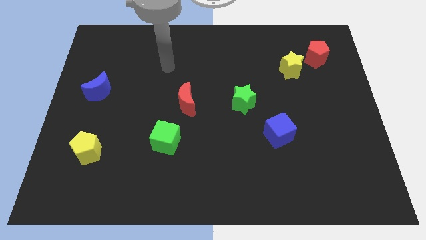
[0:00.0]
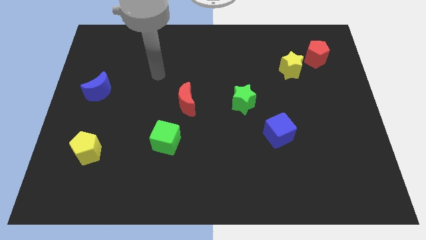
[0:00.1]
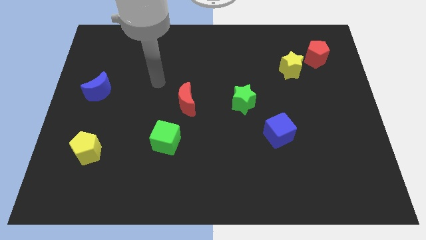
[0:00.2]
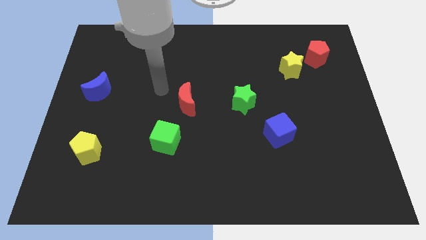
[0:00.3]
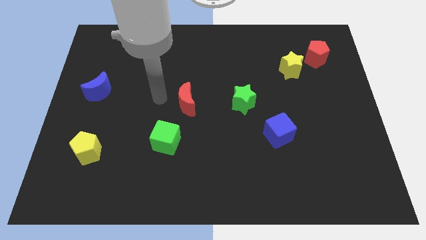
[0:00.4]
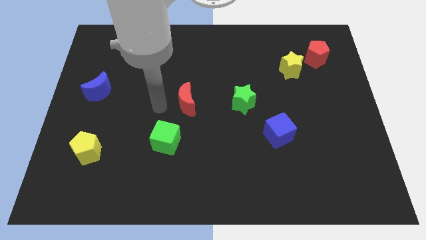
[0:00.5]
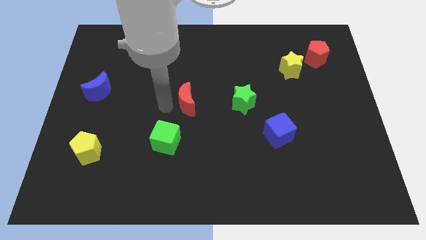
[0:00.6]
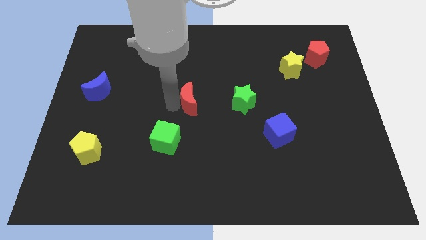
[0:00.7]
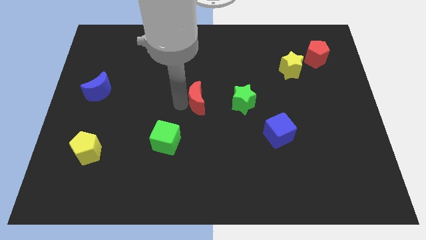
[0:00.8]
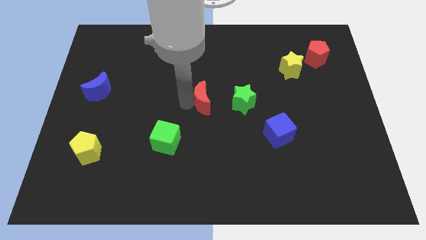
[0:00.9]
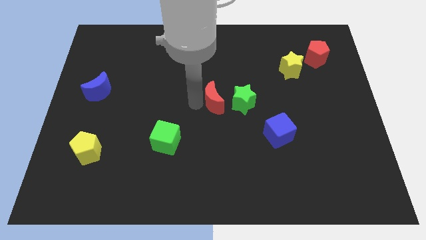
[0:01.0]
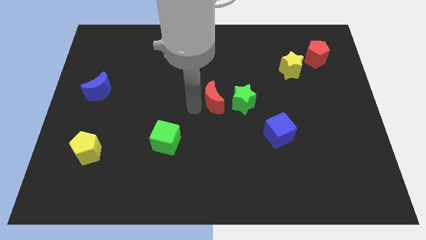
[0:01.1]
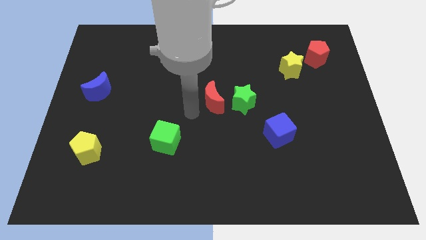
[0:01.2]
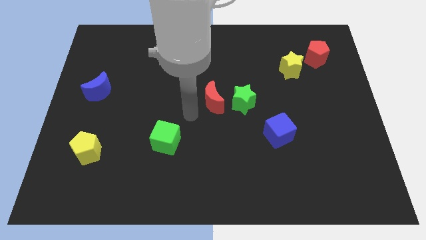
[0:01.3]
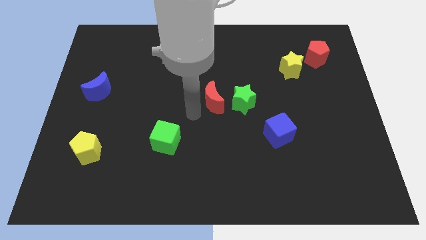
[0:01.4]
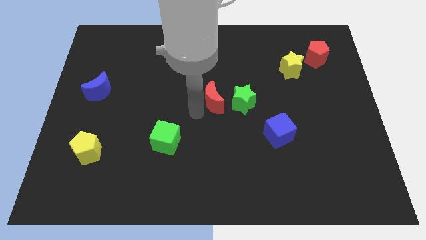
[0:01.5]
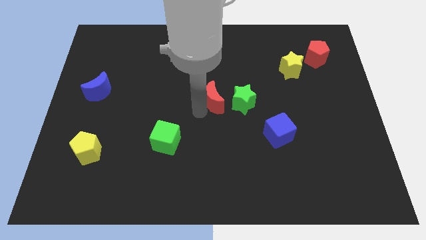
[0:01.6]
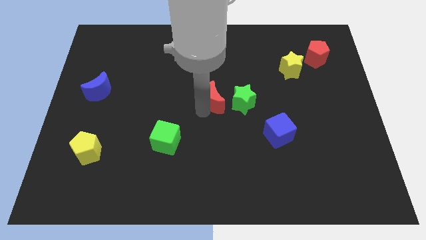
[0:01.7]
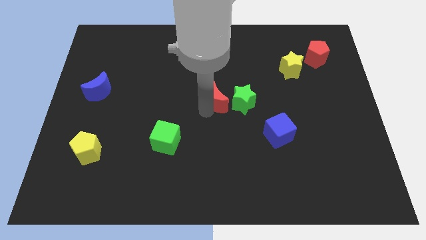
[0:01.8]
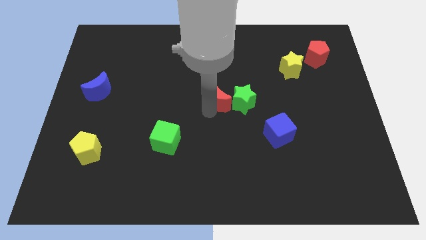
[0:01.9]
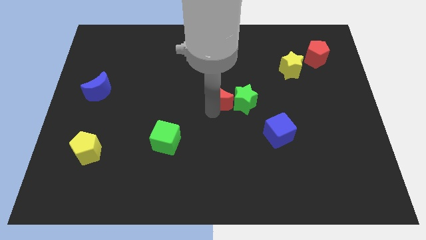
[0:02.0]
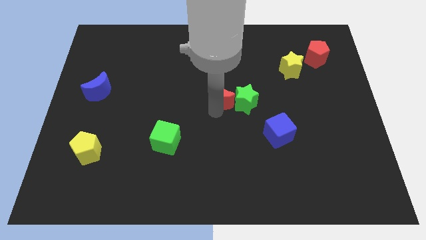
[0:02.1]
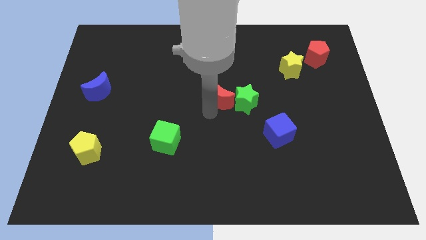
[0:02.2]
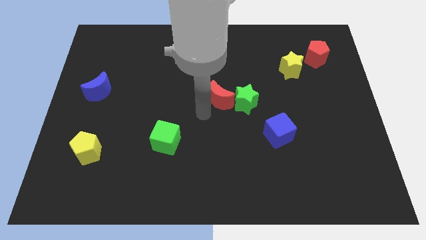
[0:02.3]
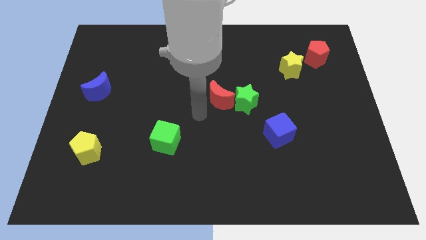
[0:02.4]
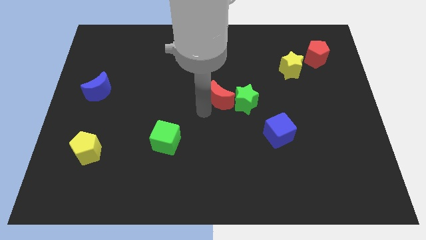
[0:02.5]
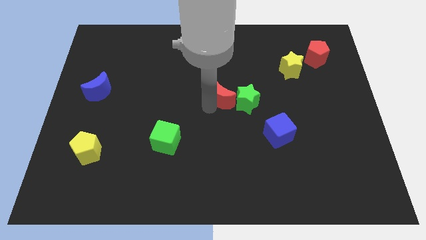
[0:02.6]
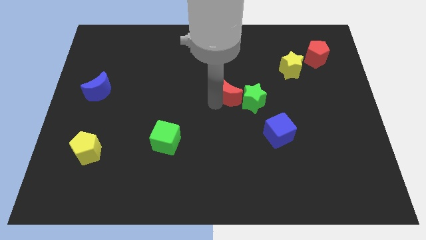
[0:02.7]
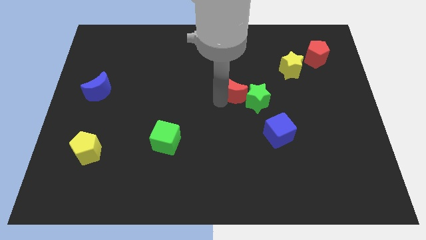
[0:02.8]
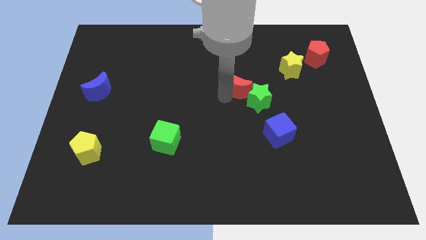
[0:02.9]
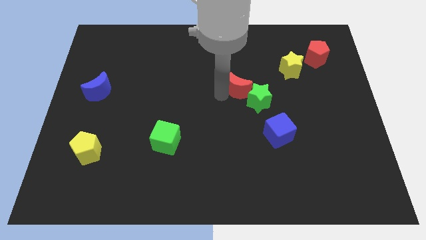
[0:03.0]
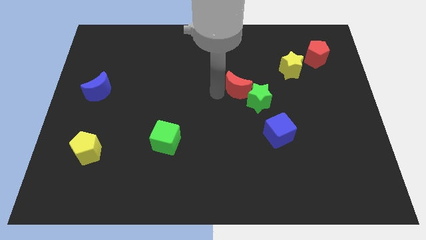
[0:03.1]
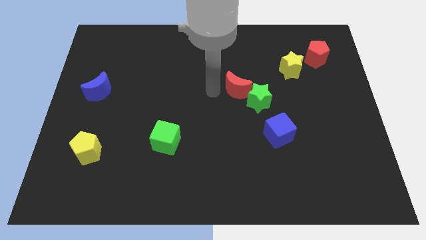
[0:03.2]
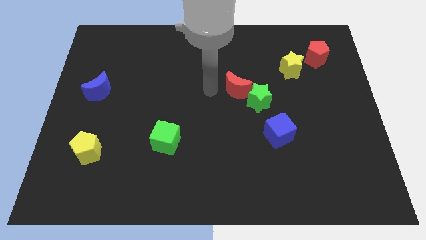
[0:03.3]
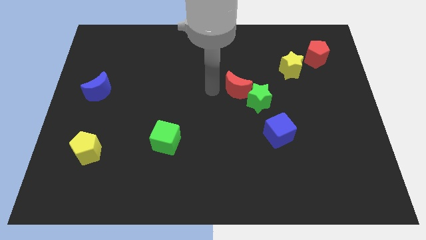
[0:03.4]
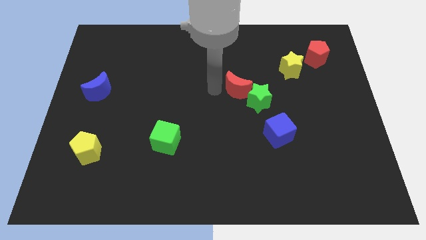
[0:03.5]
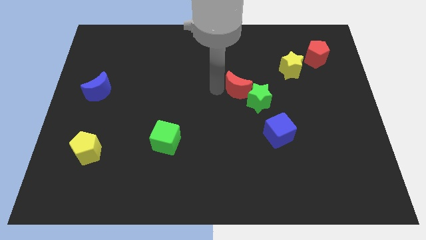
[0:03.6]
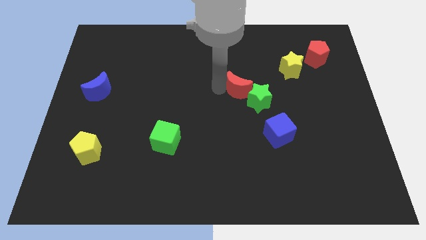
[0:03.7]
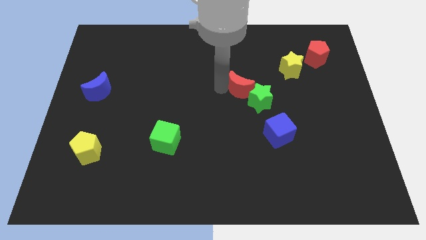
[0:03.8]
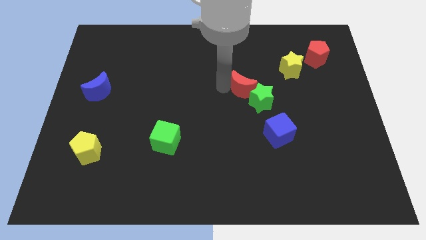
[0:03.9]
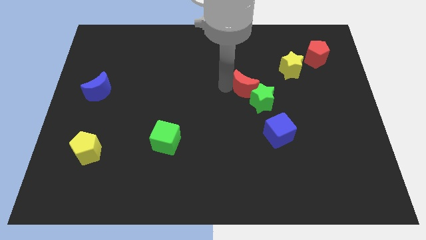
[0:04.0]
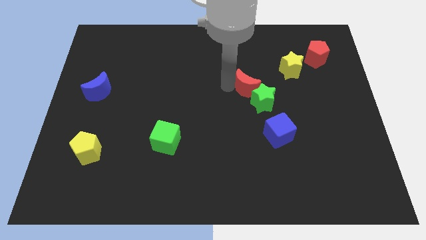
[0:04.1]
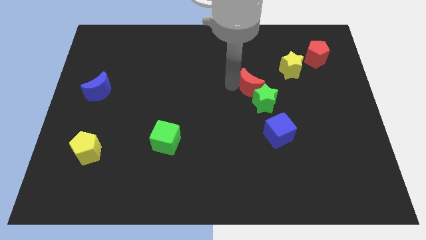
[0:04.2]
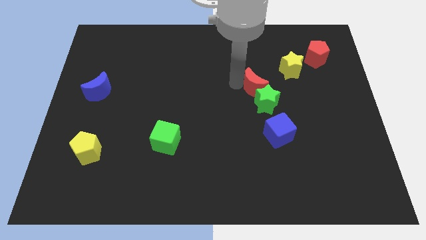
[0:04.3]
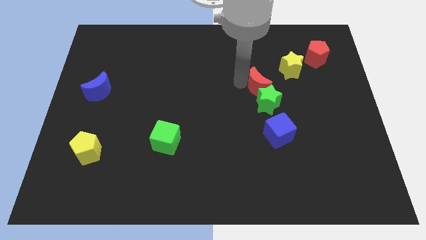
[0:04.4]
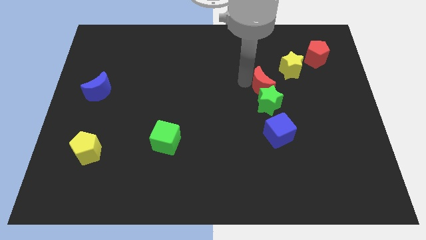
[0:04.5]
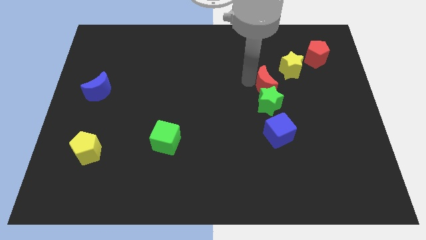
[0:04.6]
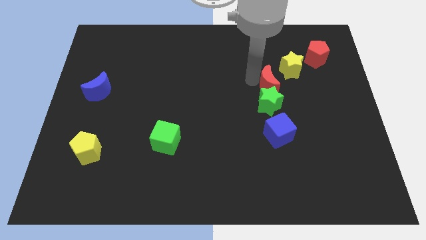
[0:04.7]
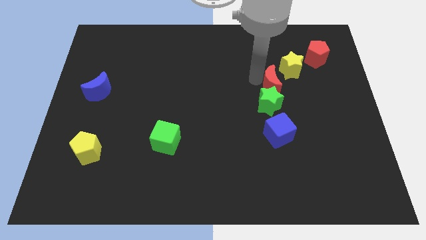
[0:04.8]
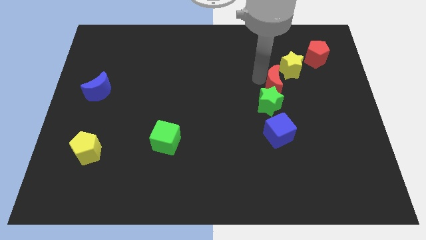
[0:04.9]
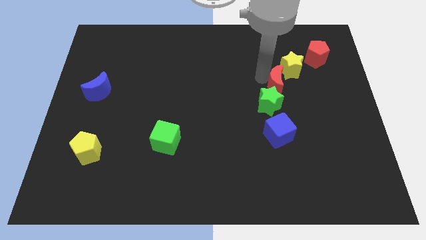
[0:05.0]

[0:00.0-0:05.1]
move the red moon below the yellow star

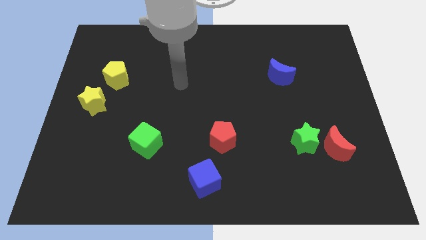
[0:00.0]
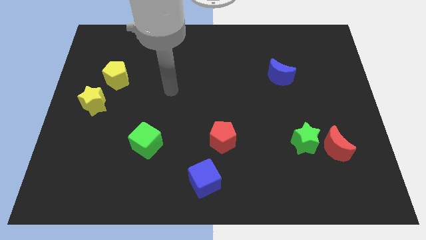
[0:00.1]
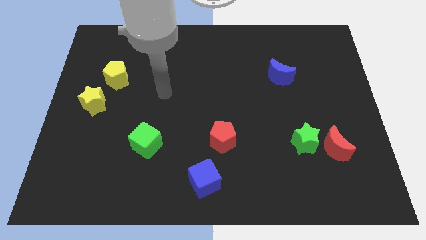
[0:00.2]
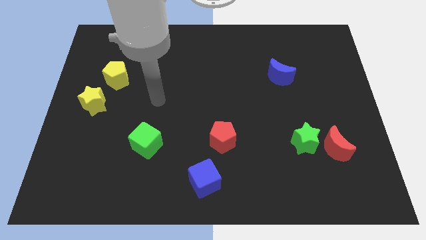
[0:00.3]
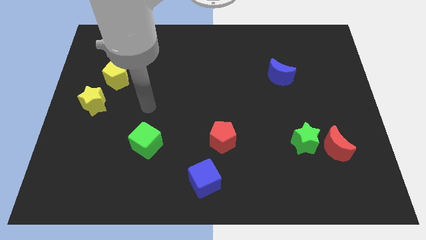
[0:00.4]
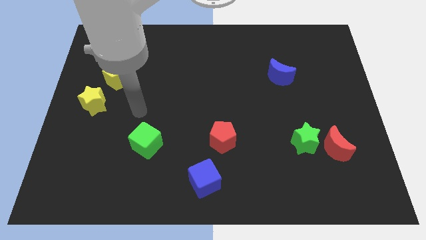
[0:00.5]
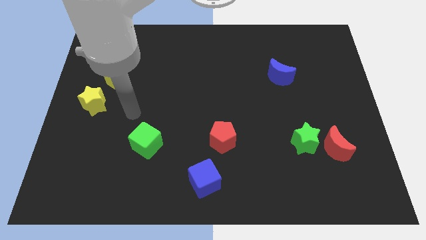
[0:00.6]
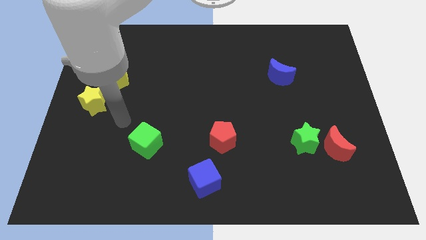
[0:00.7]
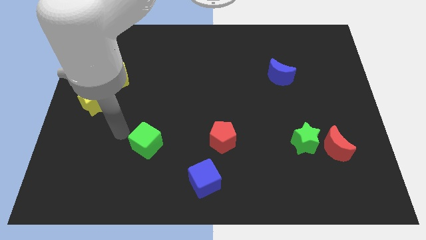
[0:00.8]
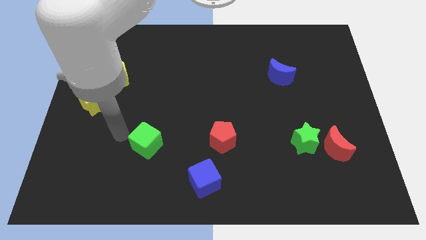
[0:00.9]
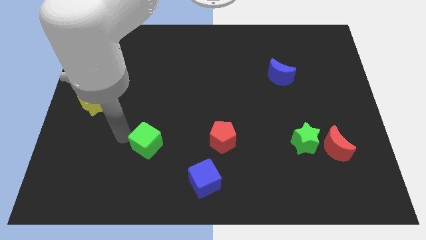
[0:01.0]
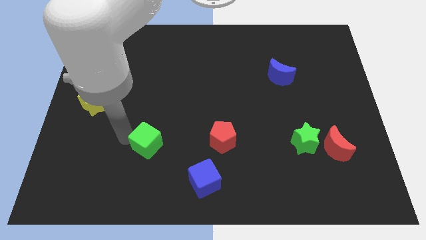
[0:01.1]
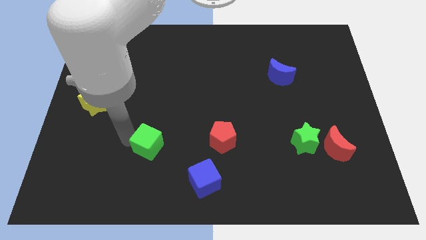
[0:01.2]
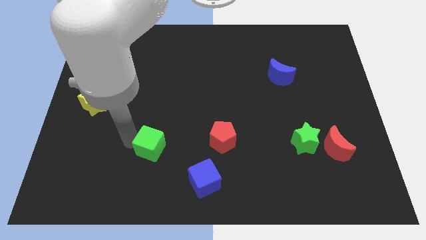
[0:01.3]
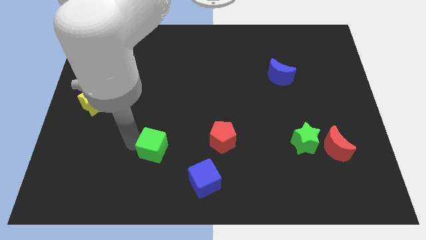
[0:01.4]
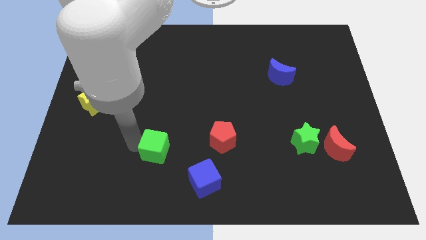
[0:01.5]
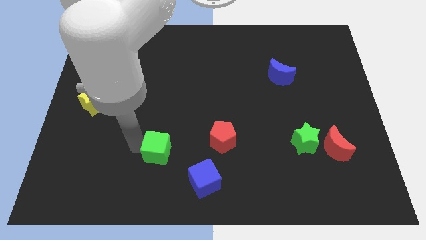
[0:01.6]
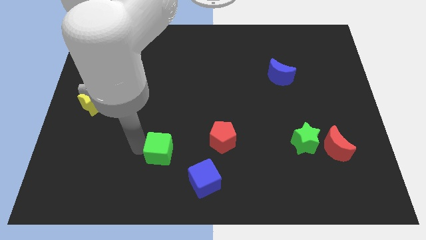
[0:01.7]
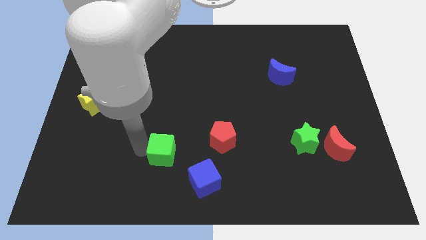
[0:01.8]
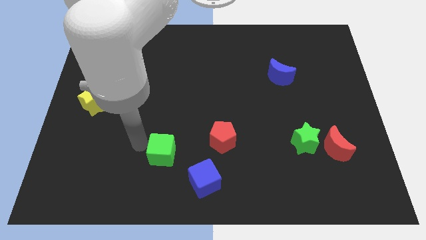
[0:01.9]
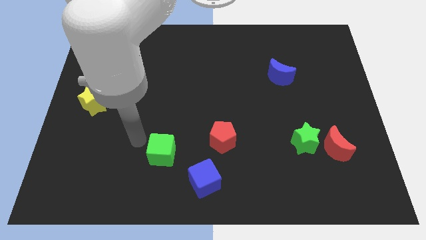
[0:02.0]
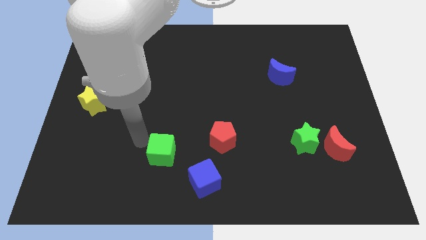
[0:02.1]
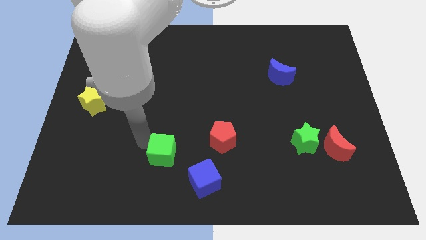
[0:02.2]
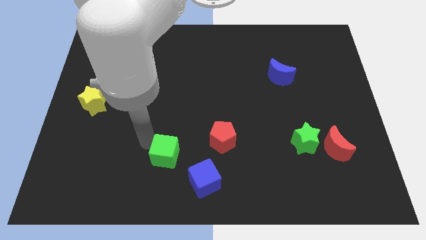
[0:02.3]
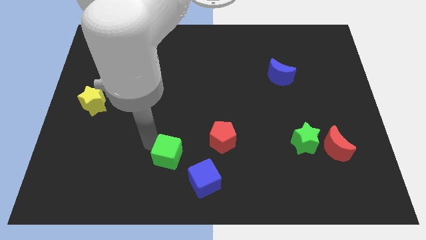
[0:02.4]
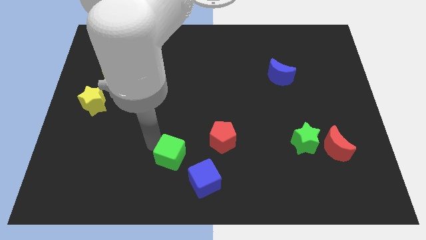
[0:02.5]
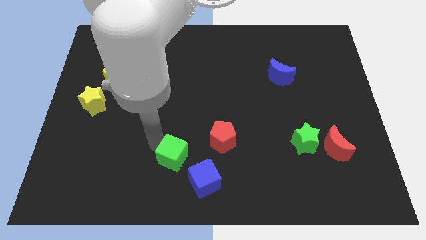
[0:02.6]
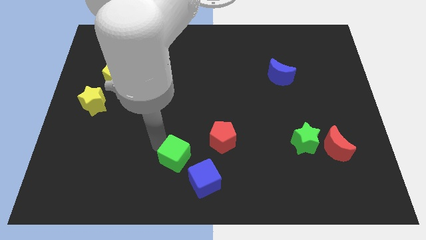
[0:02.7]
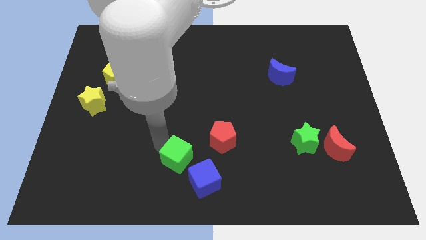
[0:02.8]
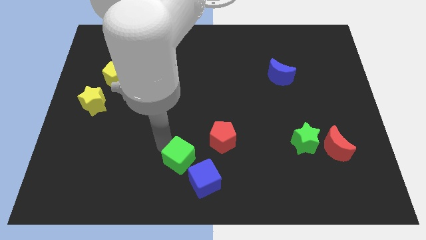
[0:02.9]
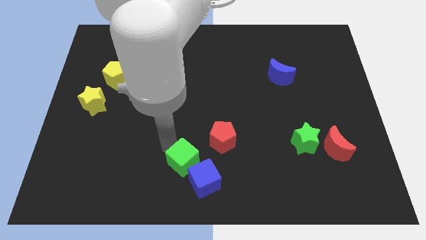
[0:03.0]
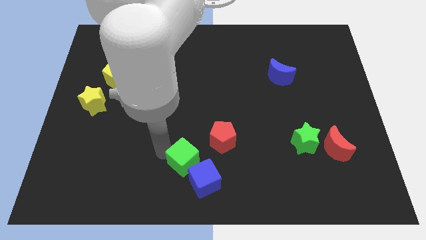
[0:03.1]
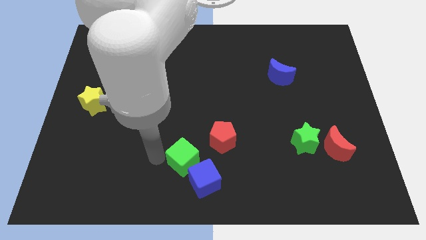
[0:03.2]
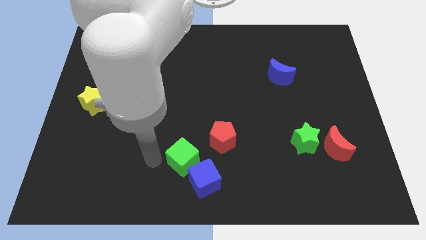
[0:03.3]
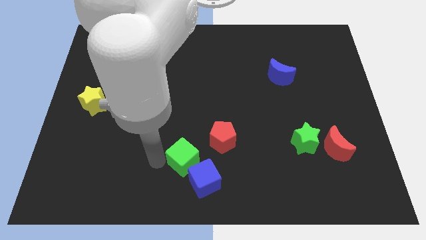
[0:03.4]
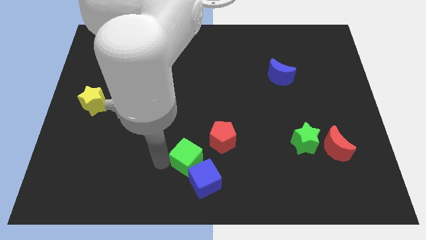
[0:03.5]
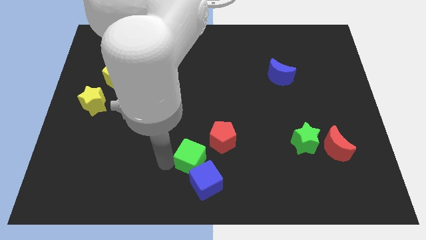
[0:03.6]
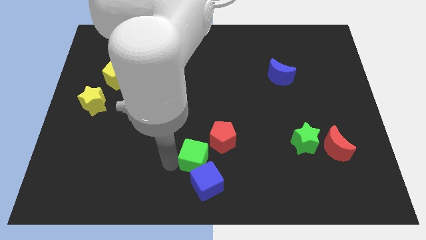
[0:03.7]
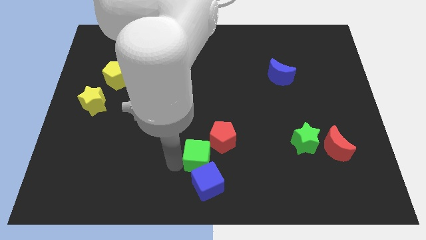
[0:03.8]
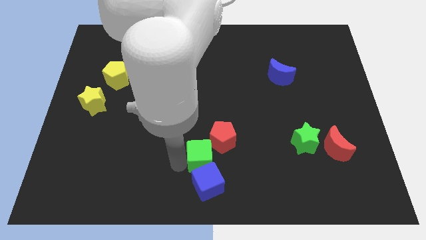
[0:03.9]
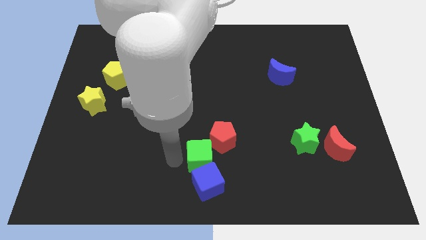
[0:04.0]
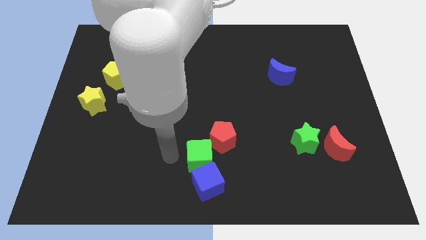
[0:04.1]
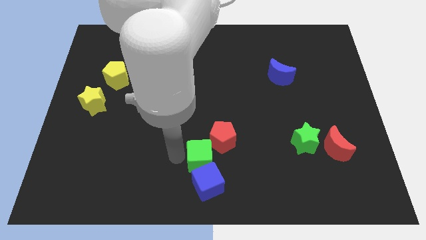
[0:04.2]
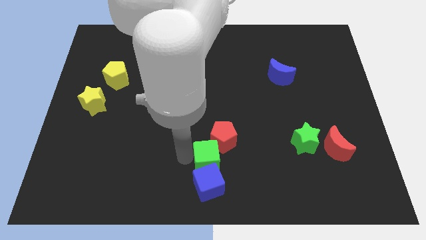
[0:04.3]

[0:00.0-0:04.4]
put the green cube to the top right of the blue cube
